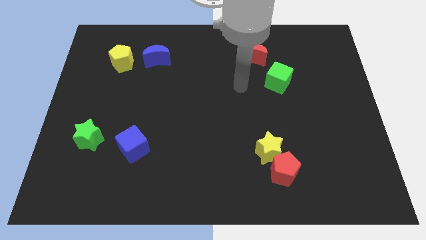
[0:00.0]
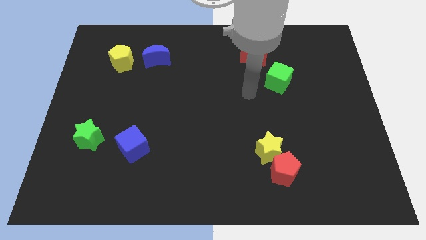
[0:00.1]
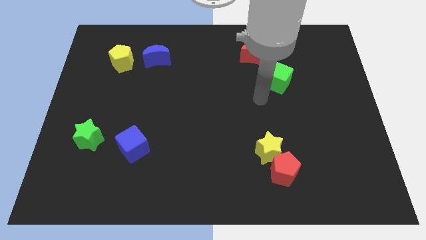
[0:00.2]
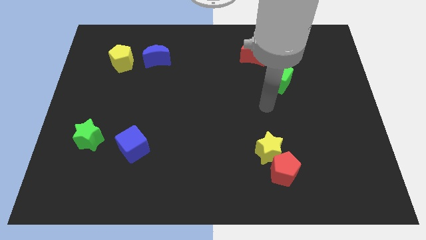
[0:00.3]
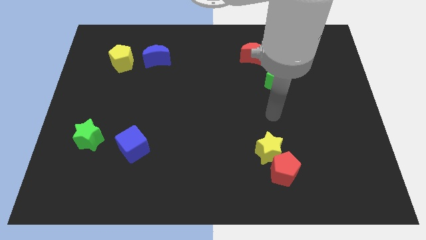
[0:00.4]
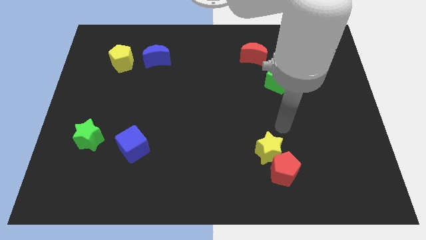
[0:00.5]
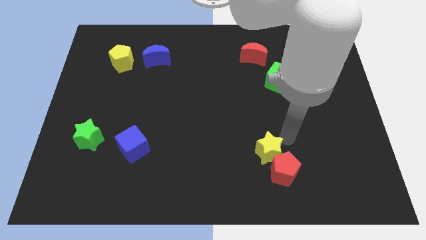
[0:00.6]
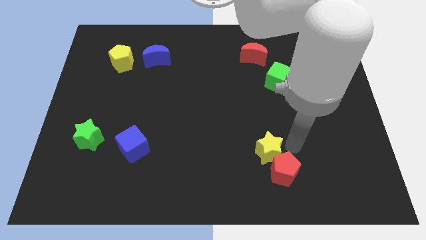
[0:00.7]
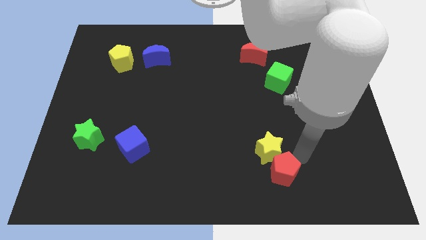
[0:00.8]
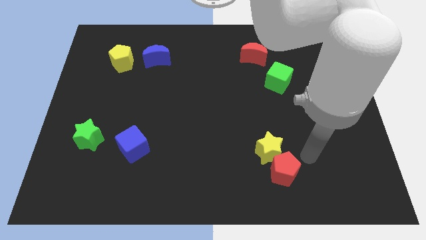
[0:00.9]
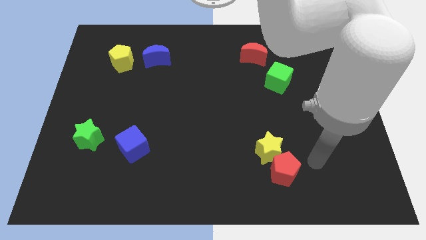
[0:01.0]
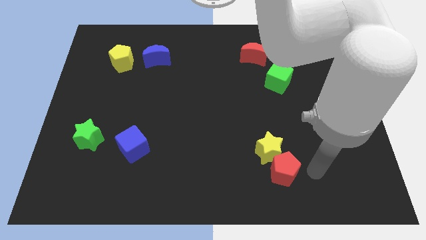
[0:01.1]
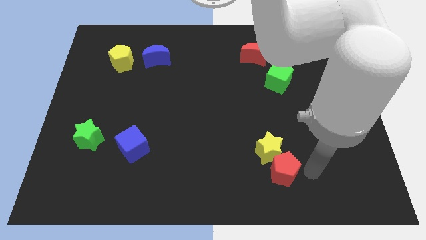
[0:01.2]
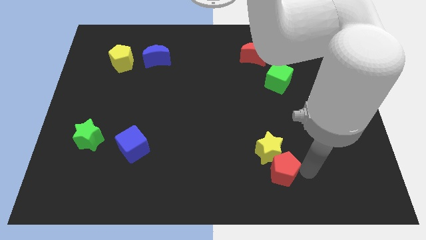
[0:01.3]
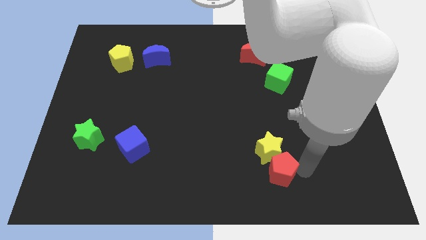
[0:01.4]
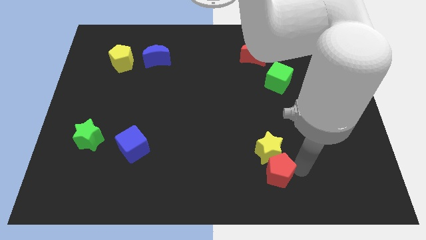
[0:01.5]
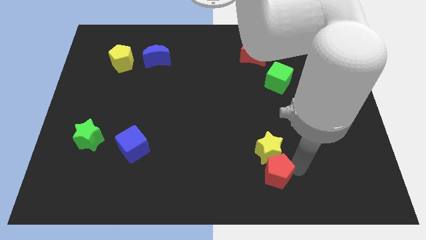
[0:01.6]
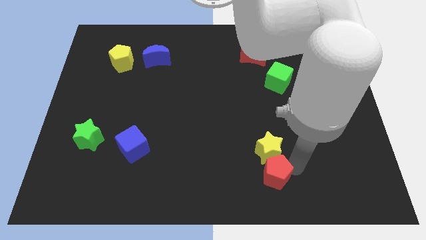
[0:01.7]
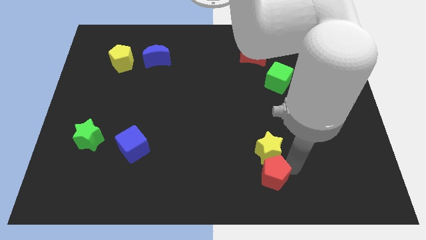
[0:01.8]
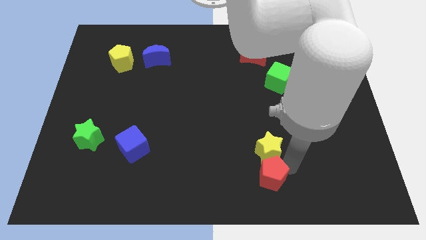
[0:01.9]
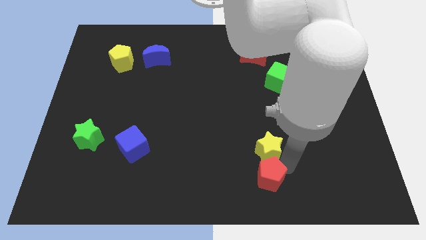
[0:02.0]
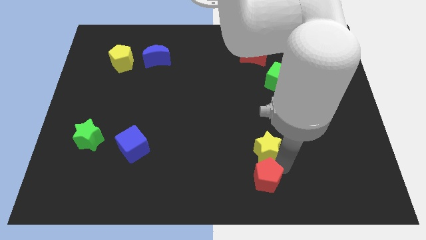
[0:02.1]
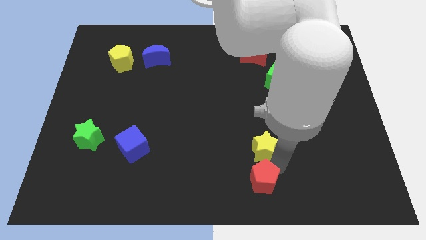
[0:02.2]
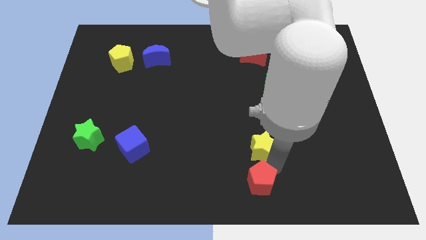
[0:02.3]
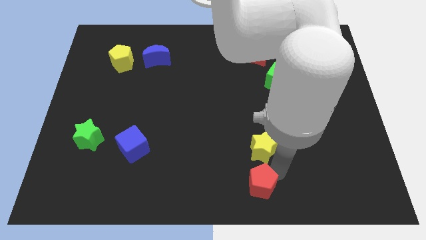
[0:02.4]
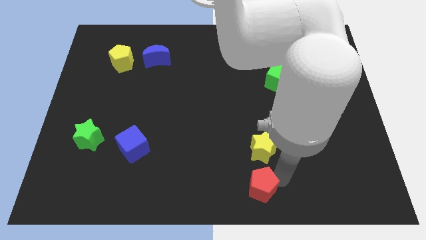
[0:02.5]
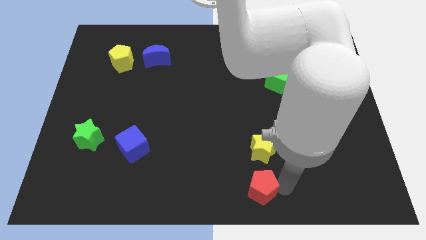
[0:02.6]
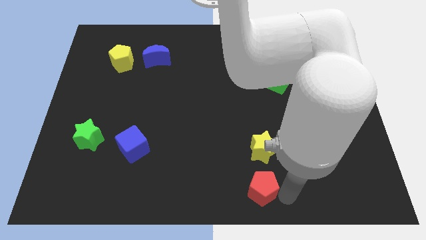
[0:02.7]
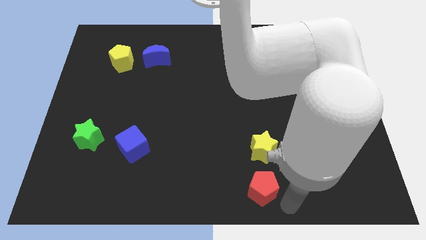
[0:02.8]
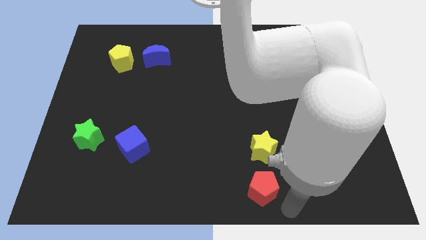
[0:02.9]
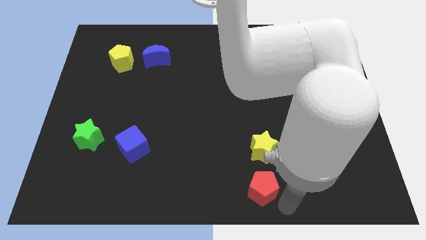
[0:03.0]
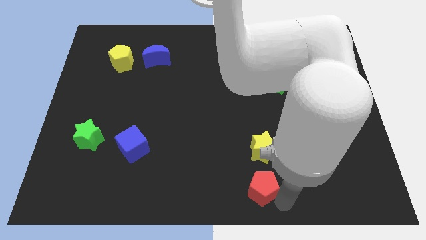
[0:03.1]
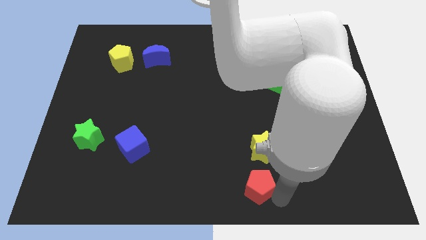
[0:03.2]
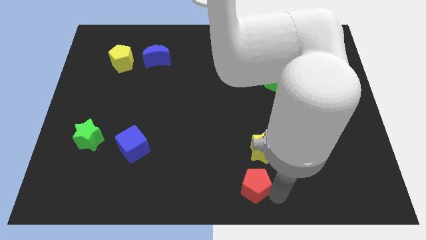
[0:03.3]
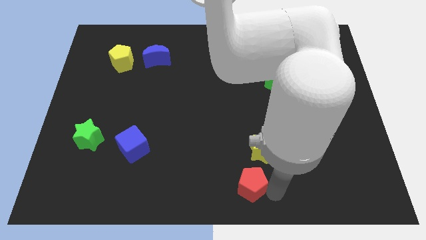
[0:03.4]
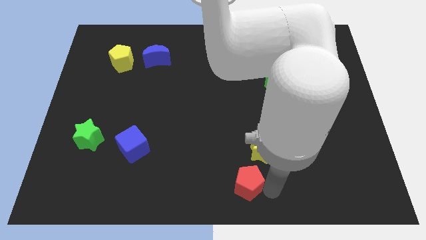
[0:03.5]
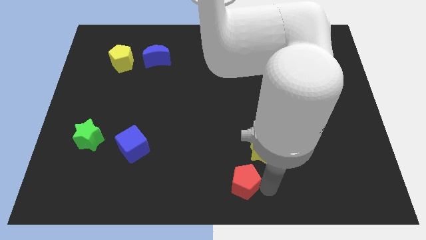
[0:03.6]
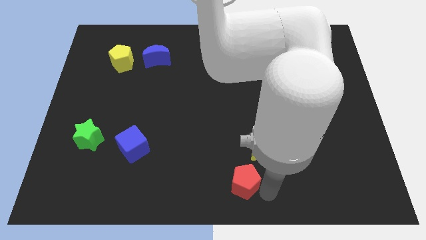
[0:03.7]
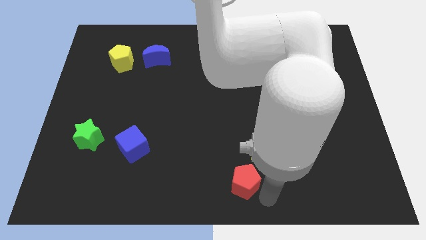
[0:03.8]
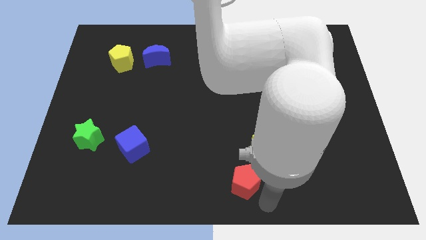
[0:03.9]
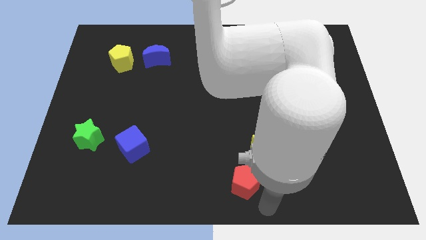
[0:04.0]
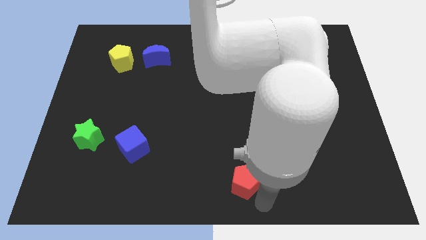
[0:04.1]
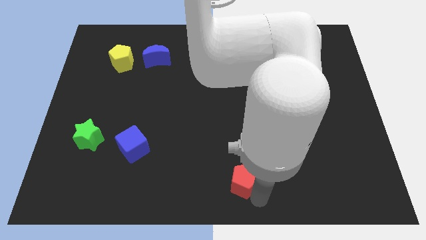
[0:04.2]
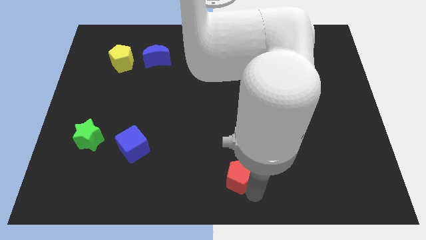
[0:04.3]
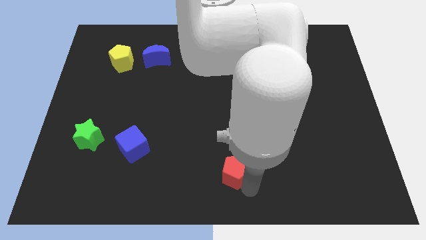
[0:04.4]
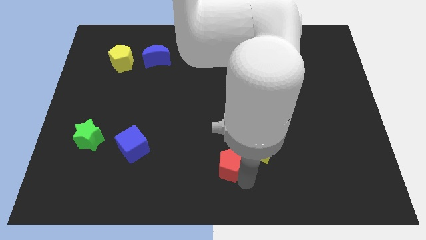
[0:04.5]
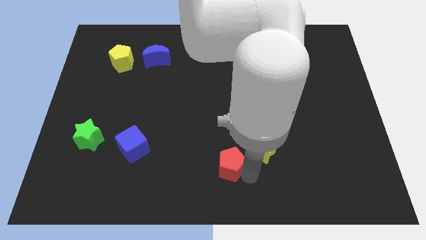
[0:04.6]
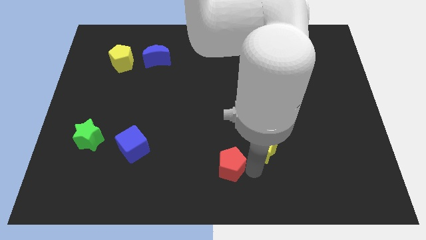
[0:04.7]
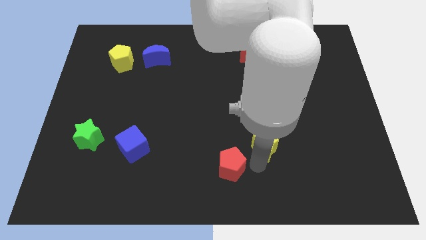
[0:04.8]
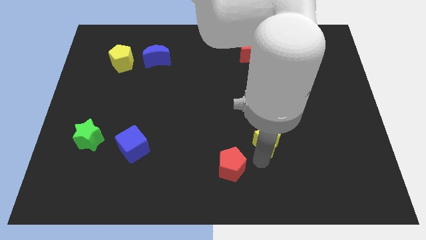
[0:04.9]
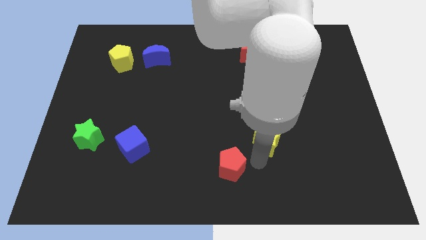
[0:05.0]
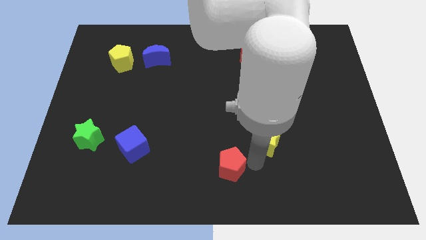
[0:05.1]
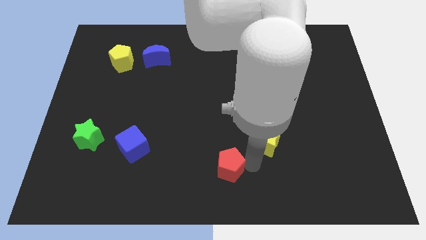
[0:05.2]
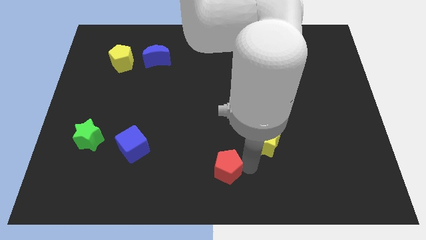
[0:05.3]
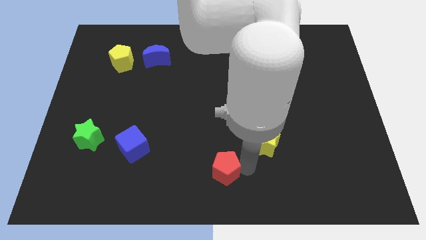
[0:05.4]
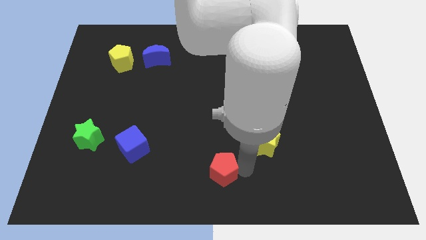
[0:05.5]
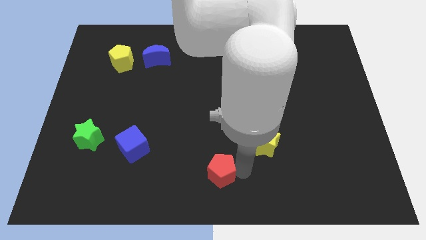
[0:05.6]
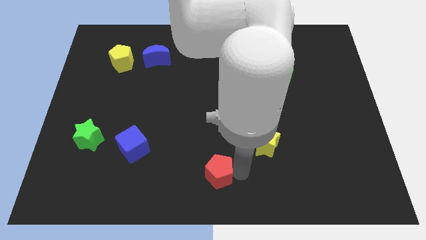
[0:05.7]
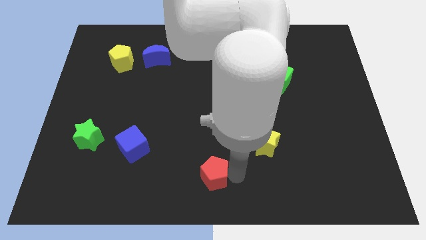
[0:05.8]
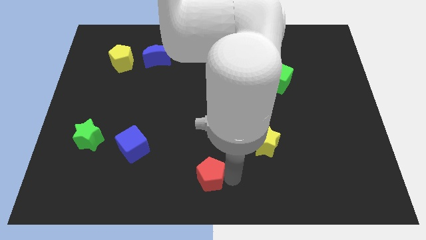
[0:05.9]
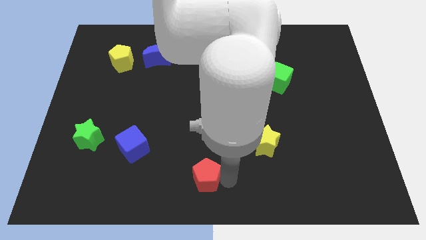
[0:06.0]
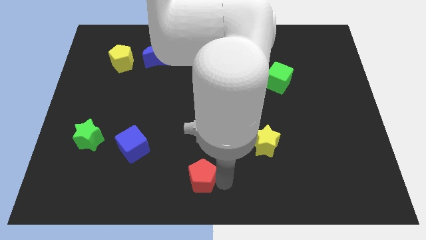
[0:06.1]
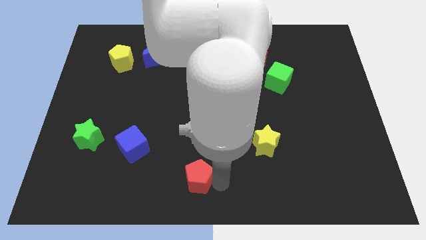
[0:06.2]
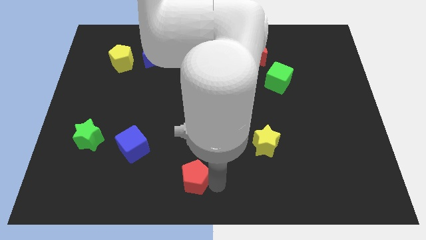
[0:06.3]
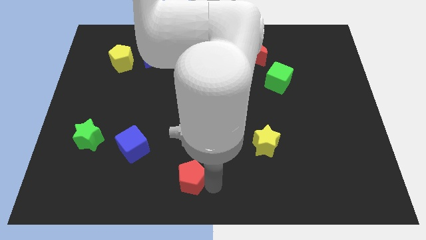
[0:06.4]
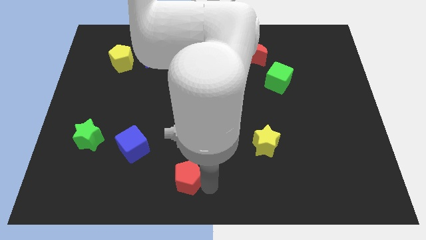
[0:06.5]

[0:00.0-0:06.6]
slide the red pentagon left

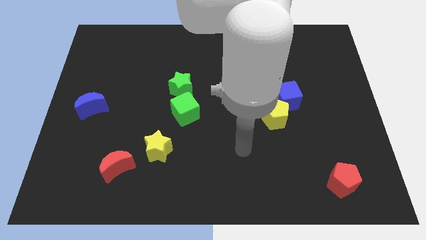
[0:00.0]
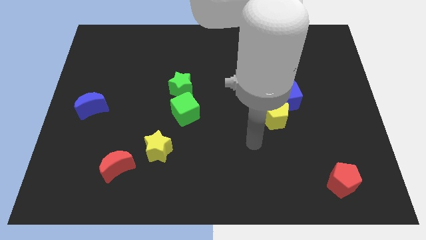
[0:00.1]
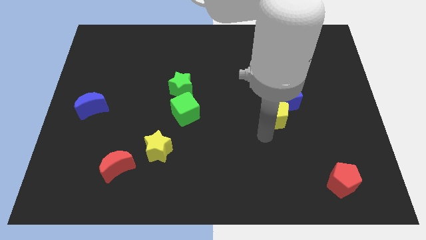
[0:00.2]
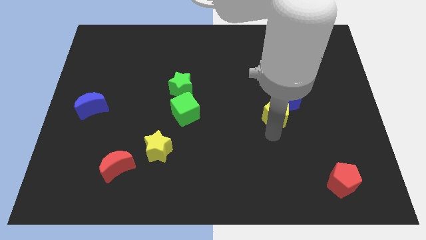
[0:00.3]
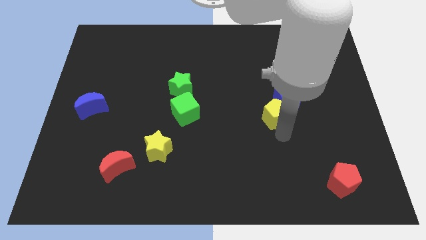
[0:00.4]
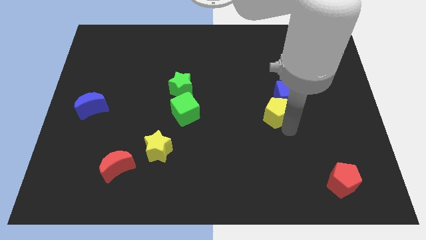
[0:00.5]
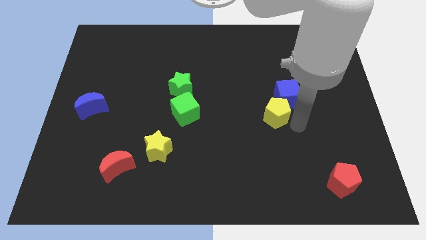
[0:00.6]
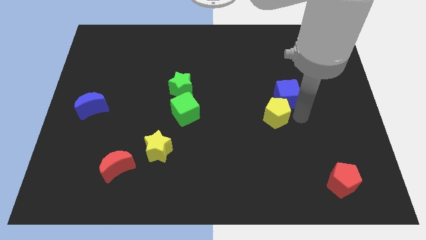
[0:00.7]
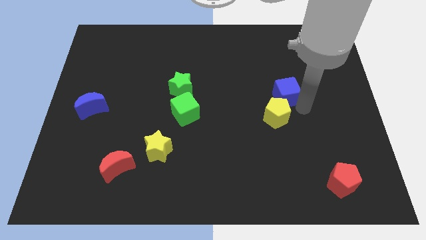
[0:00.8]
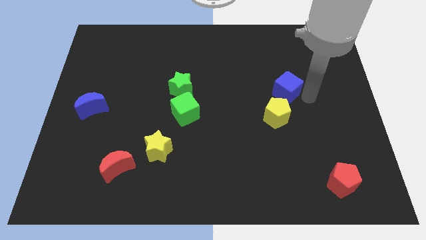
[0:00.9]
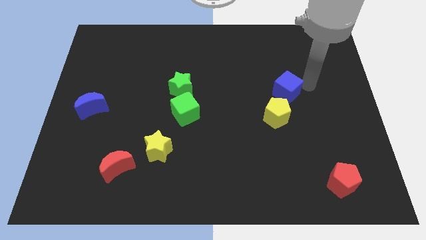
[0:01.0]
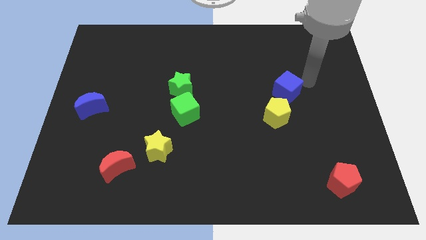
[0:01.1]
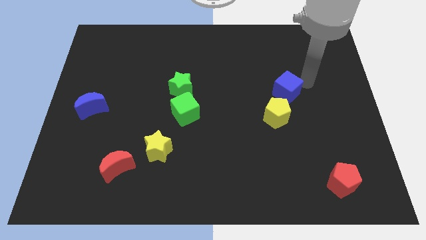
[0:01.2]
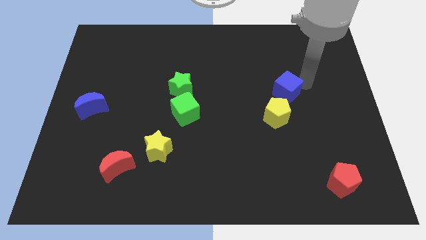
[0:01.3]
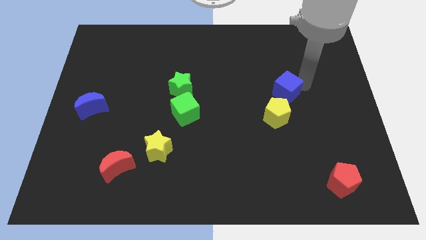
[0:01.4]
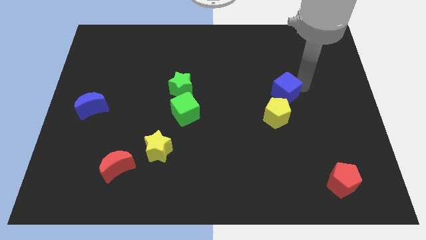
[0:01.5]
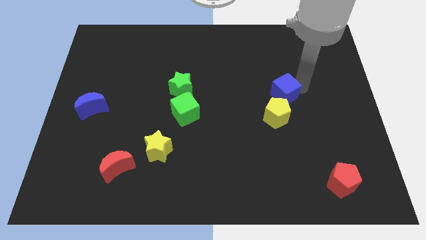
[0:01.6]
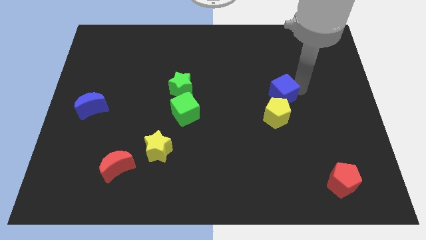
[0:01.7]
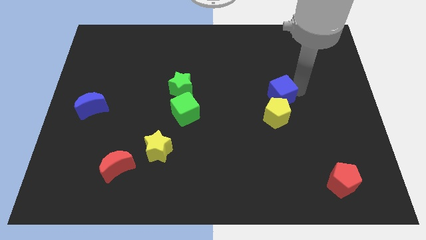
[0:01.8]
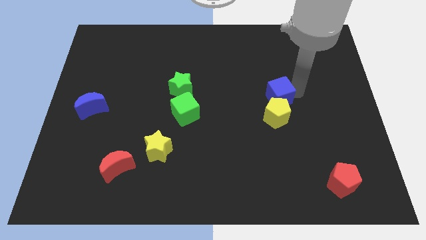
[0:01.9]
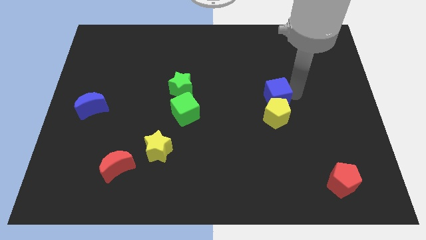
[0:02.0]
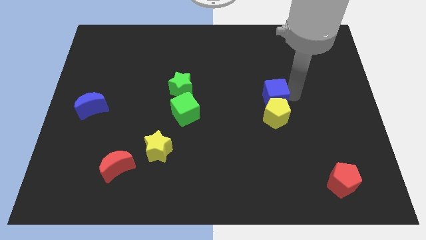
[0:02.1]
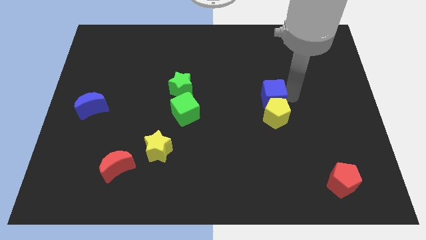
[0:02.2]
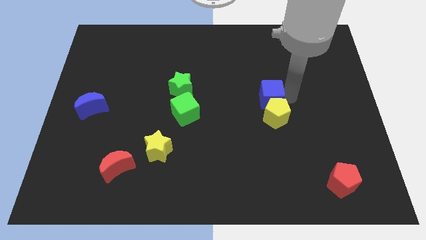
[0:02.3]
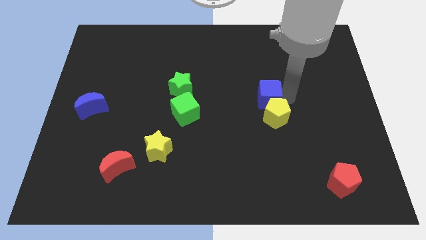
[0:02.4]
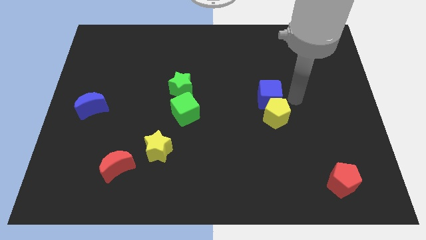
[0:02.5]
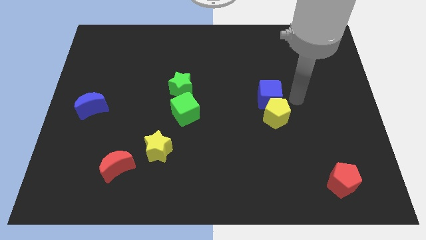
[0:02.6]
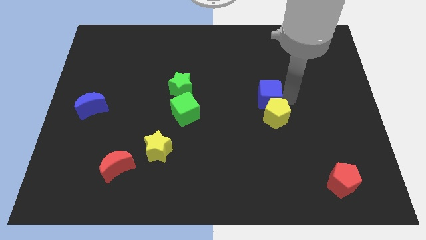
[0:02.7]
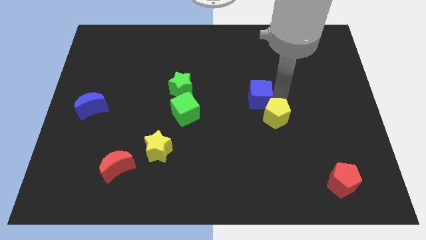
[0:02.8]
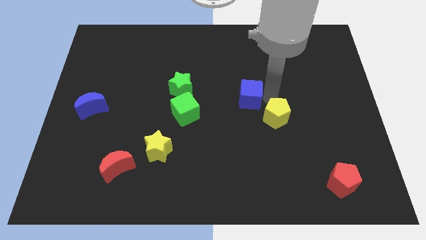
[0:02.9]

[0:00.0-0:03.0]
slightly push the blue cube to the left
